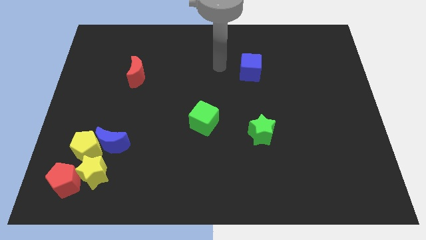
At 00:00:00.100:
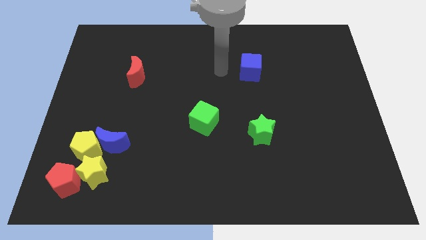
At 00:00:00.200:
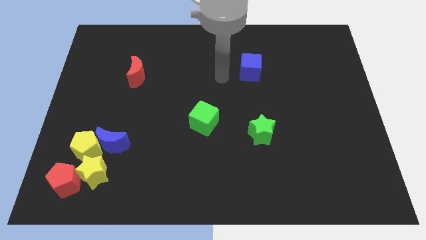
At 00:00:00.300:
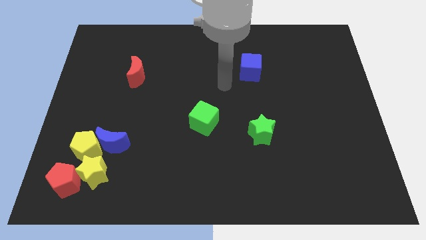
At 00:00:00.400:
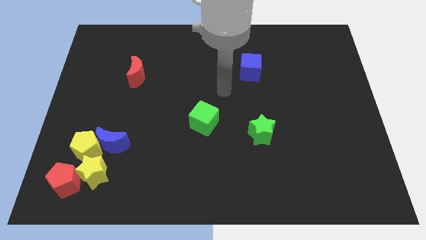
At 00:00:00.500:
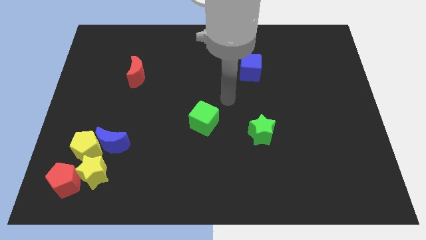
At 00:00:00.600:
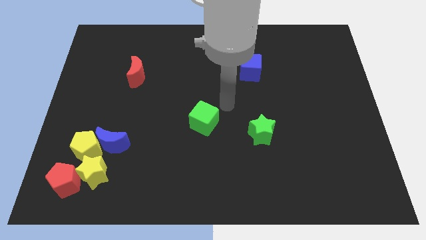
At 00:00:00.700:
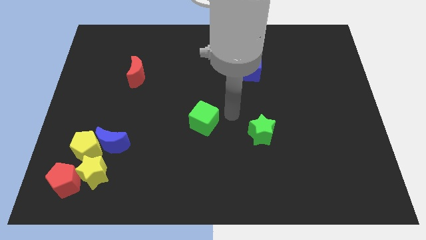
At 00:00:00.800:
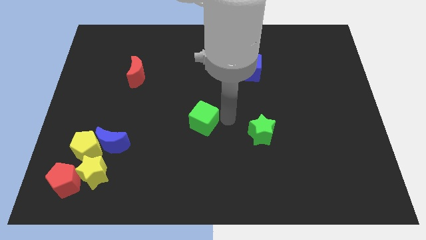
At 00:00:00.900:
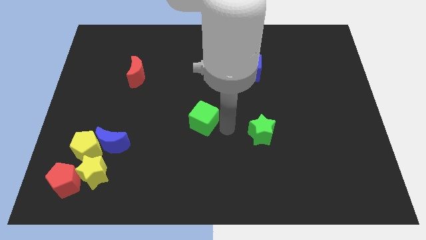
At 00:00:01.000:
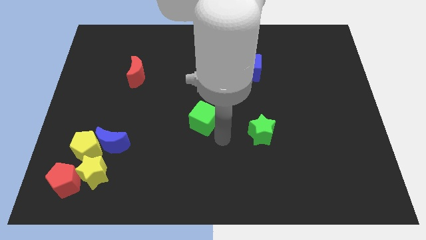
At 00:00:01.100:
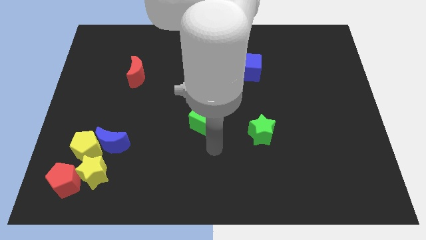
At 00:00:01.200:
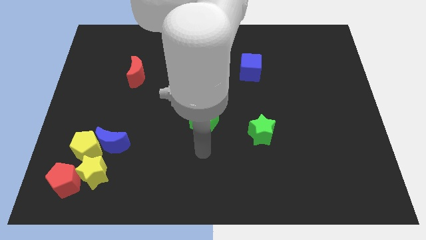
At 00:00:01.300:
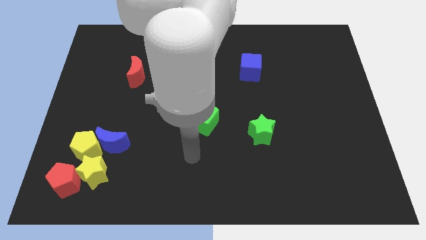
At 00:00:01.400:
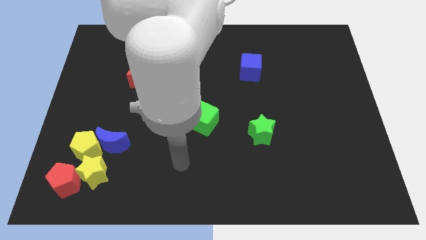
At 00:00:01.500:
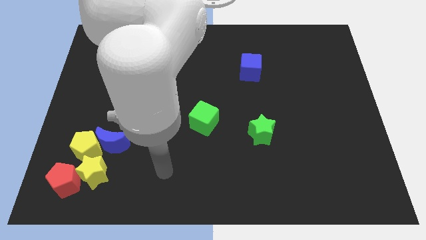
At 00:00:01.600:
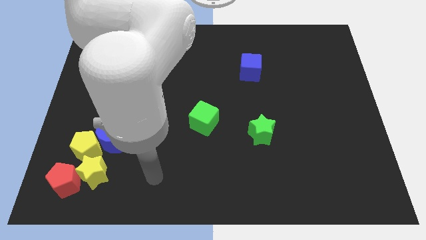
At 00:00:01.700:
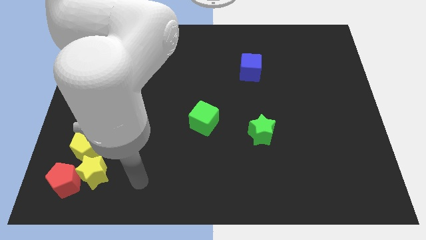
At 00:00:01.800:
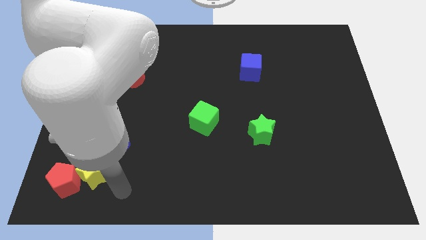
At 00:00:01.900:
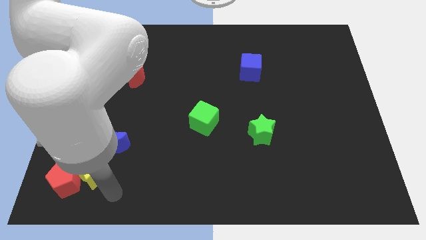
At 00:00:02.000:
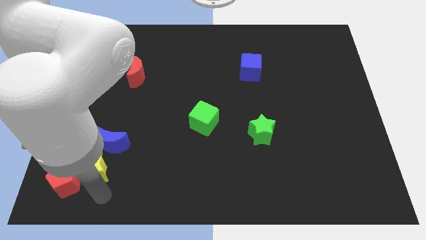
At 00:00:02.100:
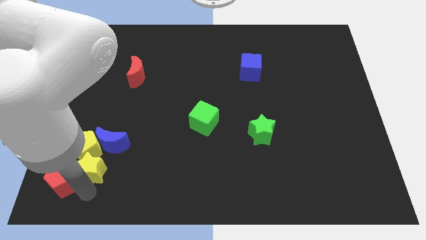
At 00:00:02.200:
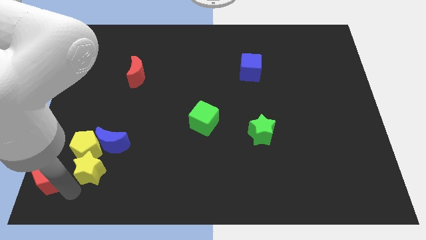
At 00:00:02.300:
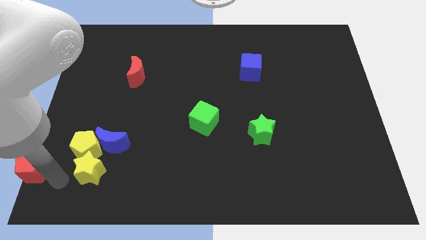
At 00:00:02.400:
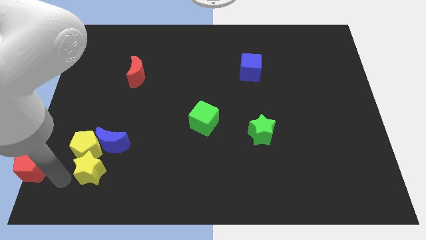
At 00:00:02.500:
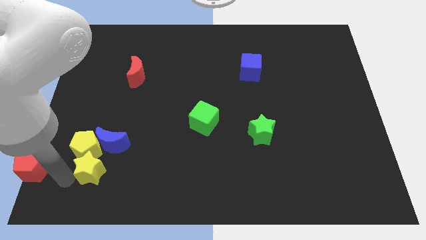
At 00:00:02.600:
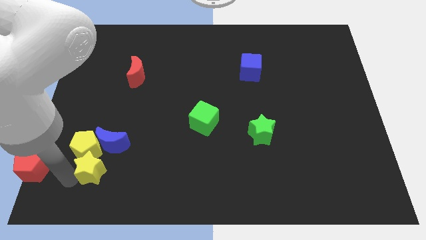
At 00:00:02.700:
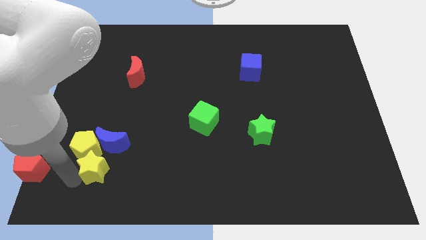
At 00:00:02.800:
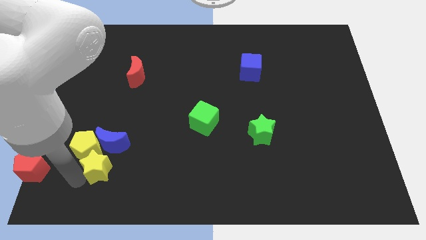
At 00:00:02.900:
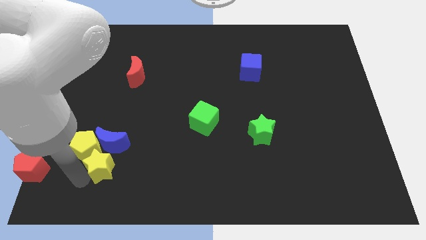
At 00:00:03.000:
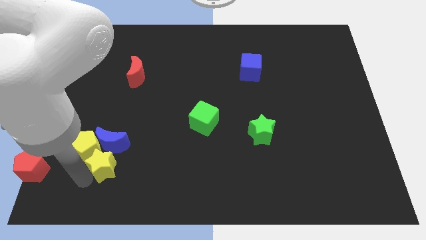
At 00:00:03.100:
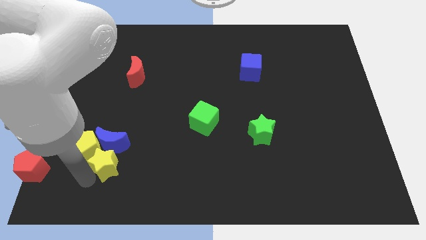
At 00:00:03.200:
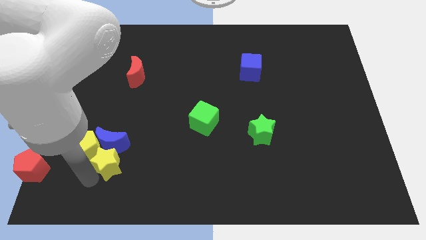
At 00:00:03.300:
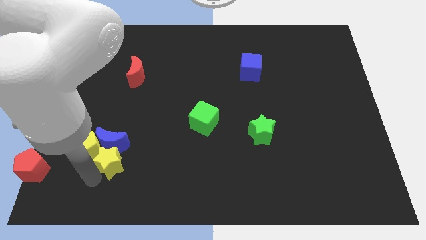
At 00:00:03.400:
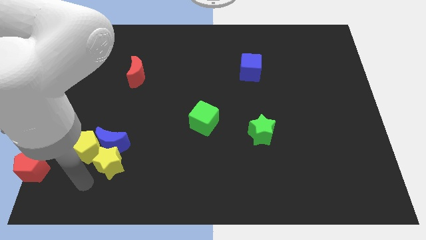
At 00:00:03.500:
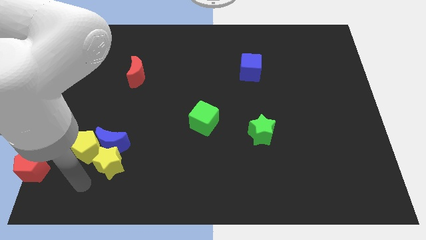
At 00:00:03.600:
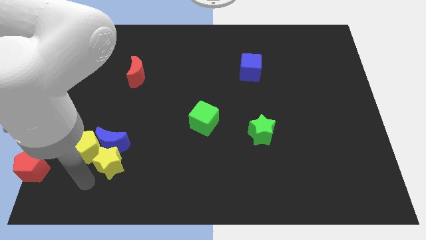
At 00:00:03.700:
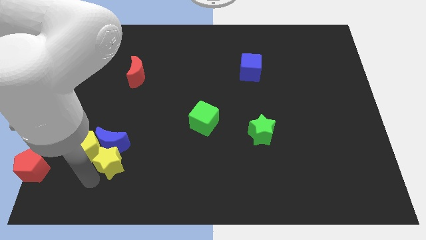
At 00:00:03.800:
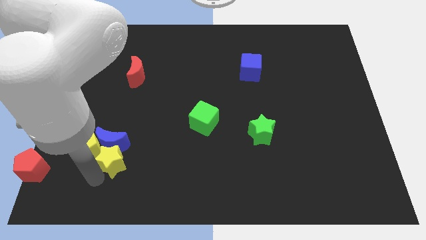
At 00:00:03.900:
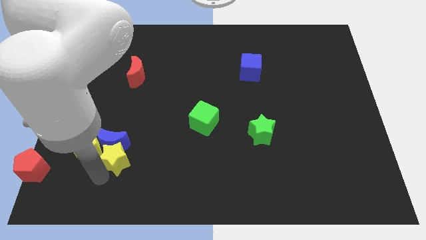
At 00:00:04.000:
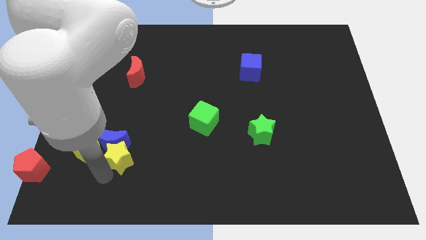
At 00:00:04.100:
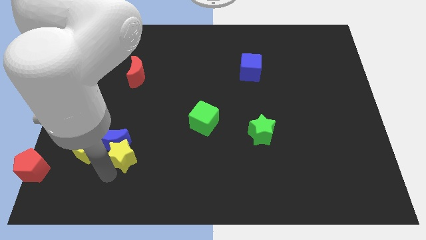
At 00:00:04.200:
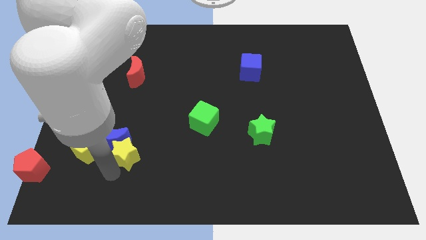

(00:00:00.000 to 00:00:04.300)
move the yellow star upwards and then right slightly

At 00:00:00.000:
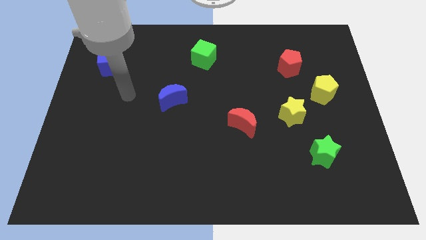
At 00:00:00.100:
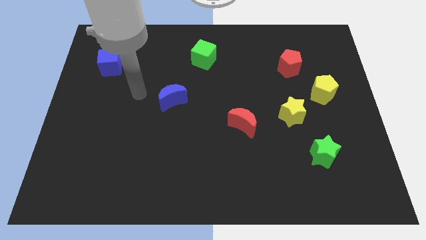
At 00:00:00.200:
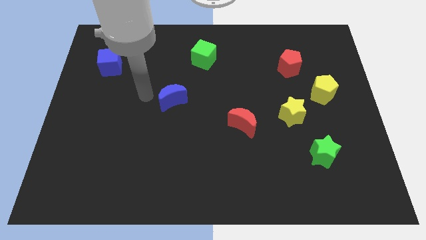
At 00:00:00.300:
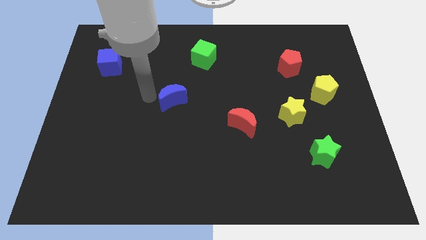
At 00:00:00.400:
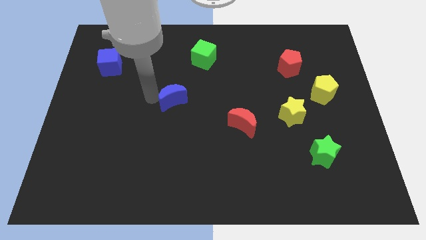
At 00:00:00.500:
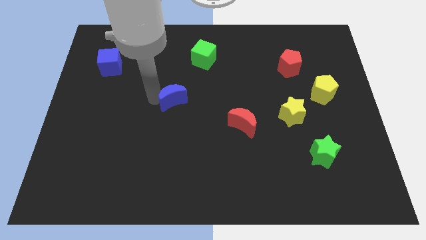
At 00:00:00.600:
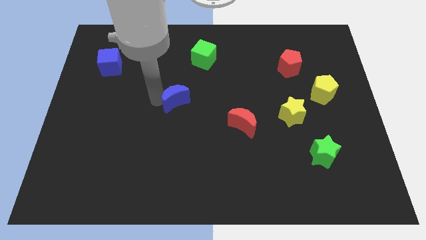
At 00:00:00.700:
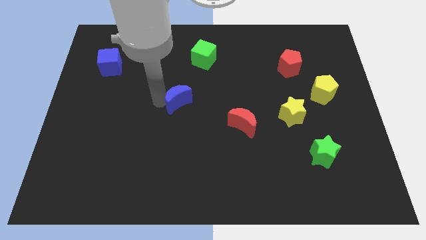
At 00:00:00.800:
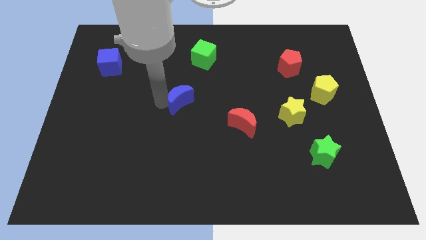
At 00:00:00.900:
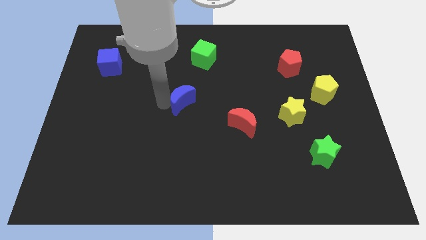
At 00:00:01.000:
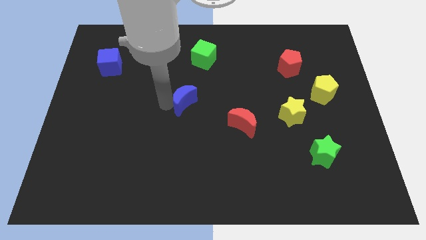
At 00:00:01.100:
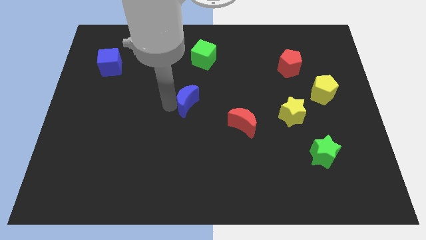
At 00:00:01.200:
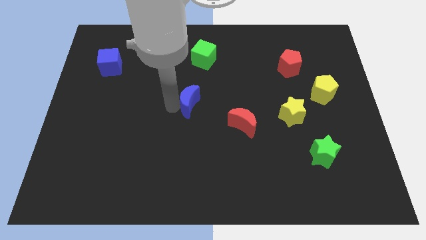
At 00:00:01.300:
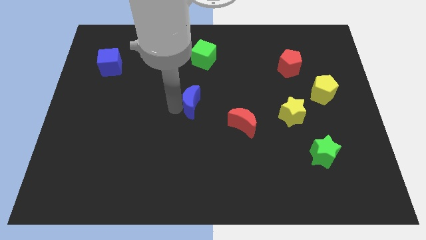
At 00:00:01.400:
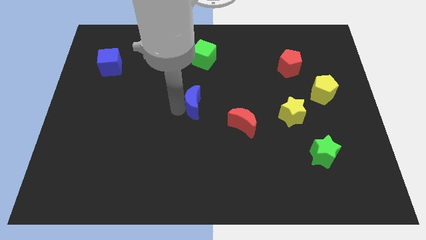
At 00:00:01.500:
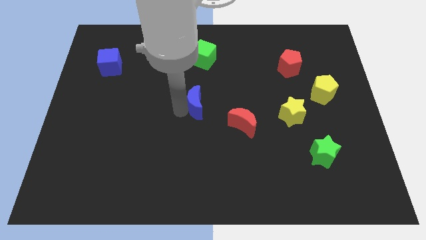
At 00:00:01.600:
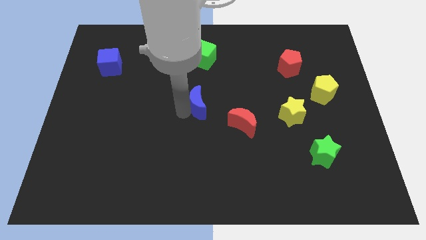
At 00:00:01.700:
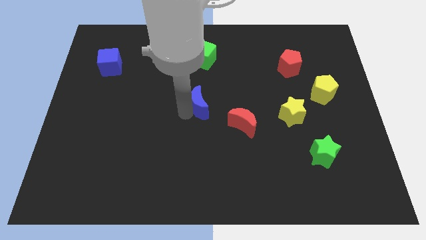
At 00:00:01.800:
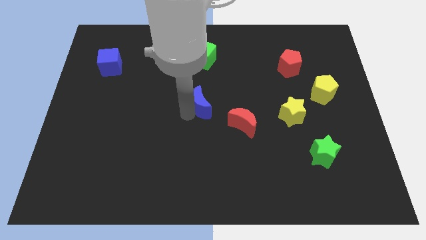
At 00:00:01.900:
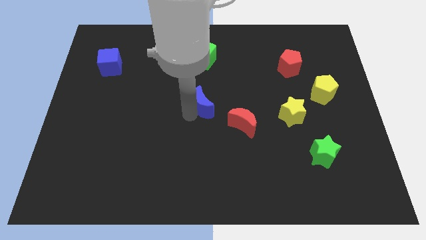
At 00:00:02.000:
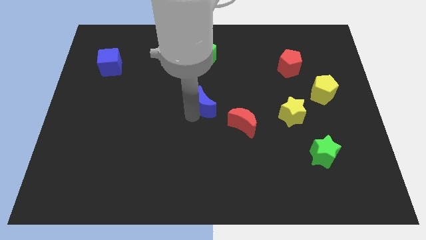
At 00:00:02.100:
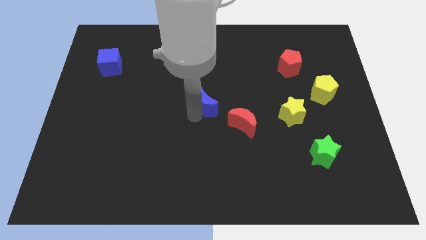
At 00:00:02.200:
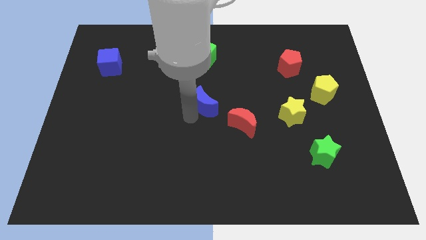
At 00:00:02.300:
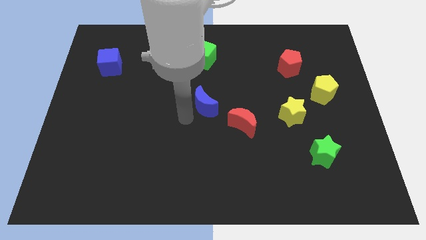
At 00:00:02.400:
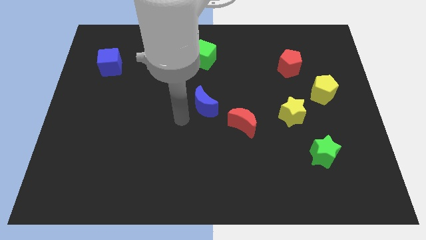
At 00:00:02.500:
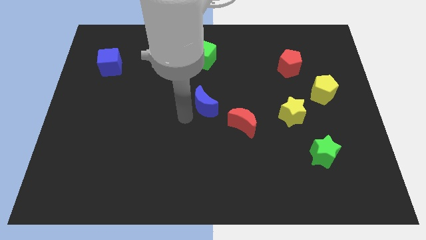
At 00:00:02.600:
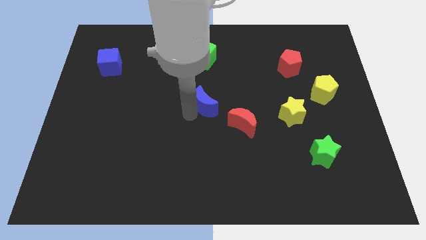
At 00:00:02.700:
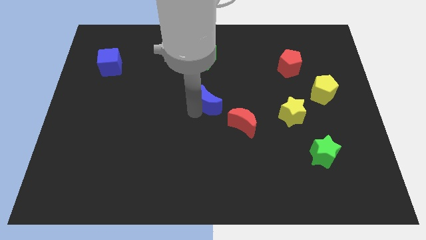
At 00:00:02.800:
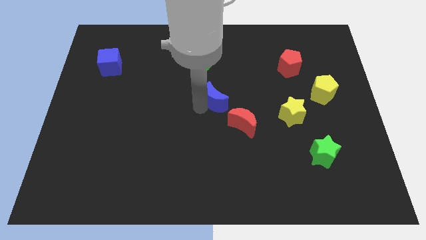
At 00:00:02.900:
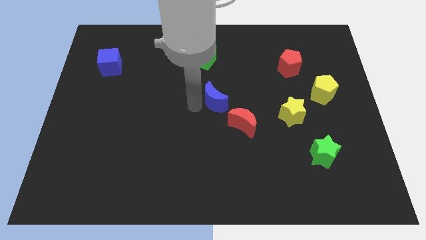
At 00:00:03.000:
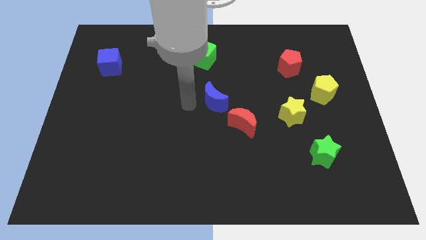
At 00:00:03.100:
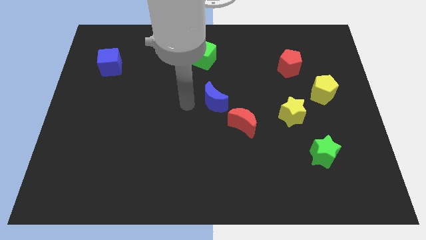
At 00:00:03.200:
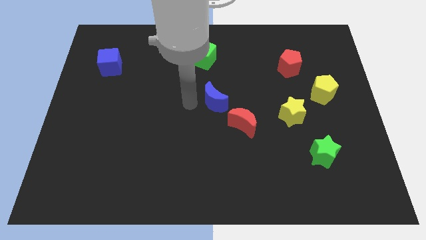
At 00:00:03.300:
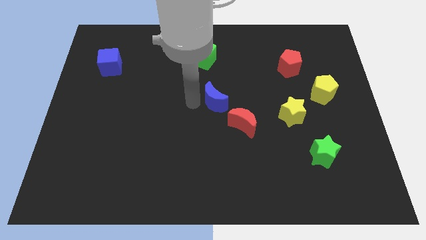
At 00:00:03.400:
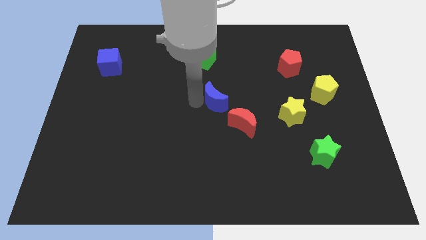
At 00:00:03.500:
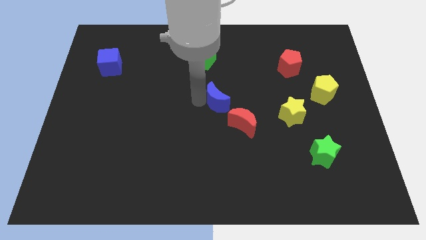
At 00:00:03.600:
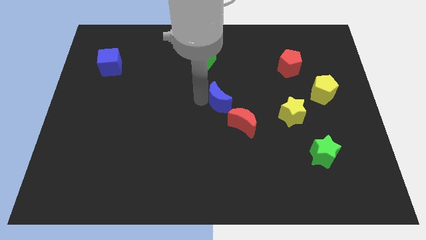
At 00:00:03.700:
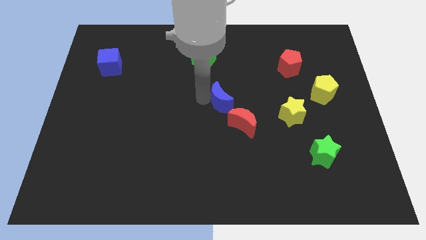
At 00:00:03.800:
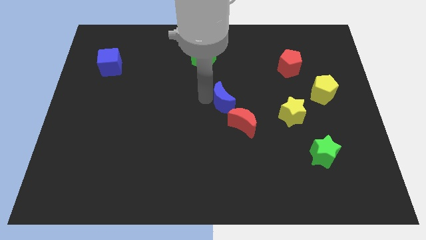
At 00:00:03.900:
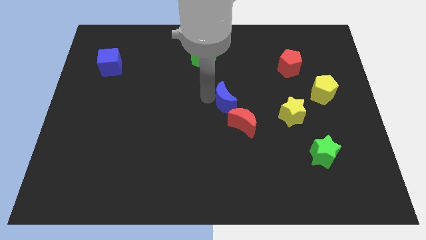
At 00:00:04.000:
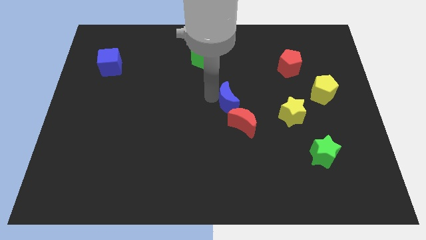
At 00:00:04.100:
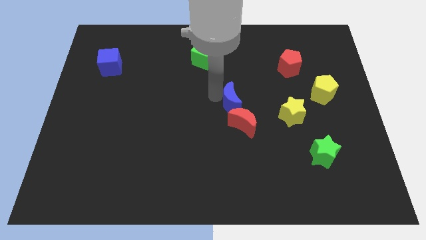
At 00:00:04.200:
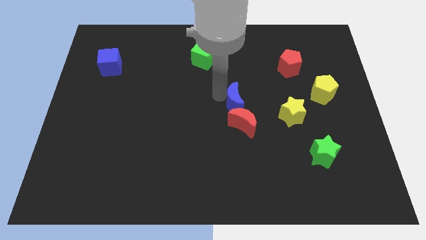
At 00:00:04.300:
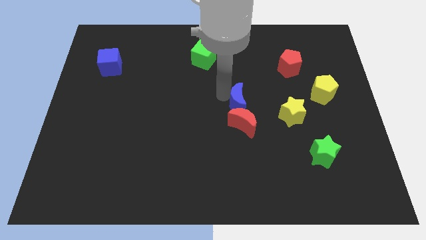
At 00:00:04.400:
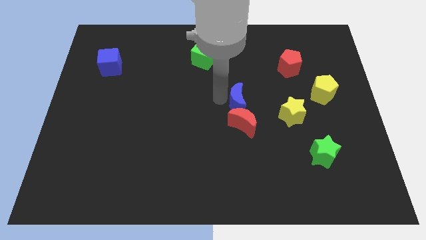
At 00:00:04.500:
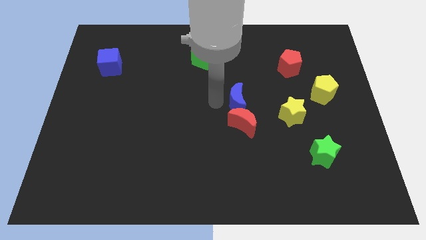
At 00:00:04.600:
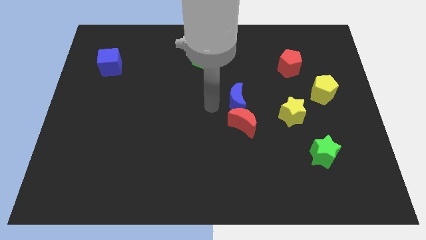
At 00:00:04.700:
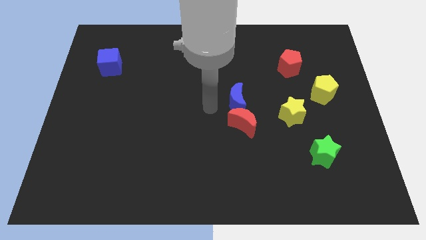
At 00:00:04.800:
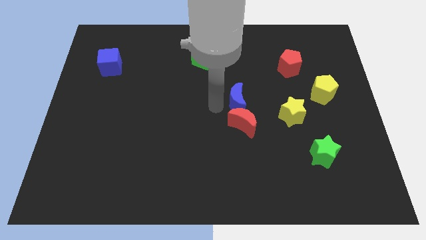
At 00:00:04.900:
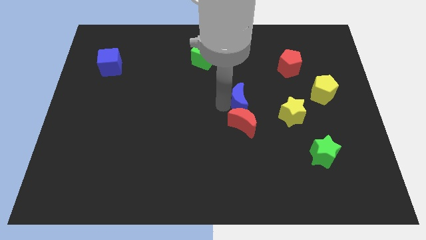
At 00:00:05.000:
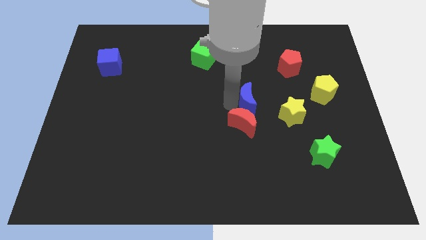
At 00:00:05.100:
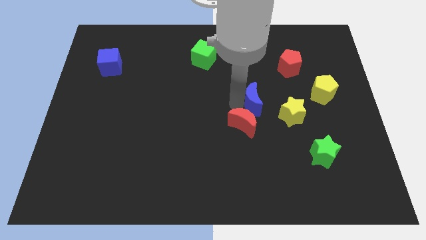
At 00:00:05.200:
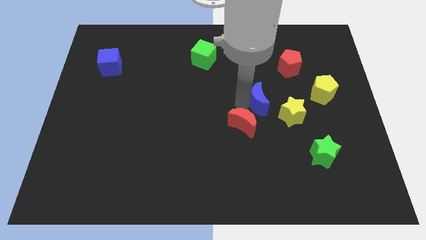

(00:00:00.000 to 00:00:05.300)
push the blue moon right
